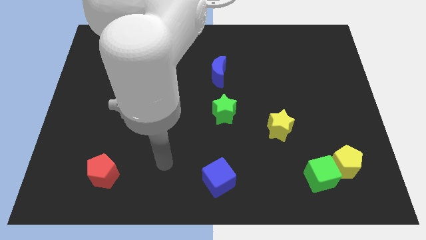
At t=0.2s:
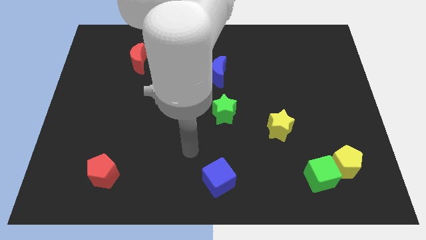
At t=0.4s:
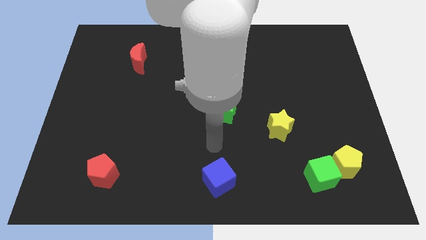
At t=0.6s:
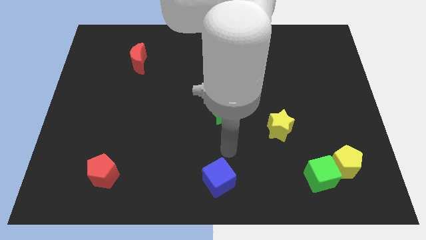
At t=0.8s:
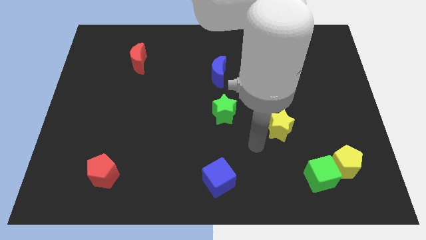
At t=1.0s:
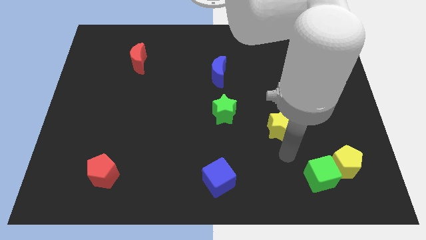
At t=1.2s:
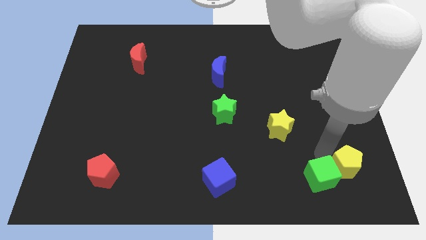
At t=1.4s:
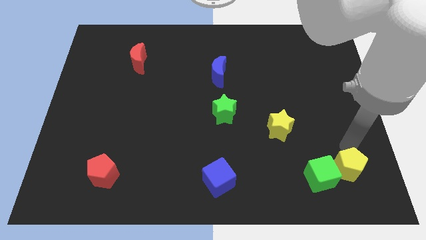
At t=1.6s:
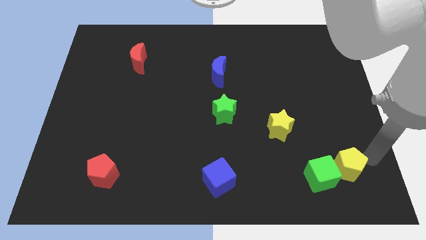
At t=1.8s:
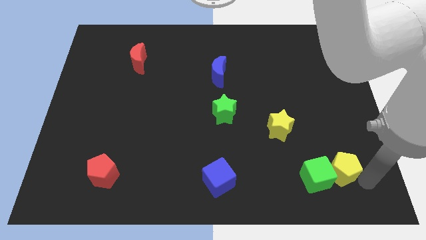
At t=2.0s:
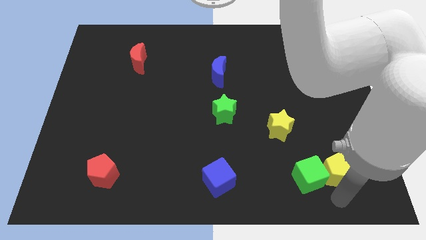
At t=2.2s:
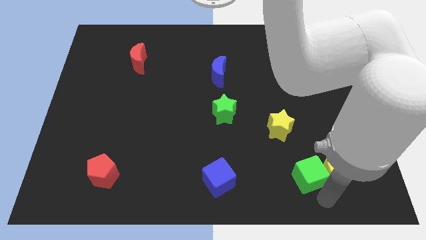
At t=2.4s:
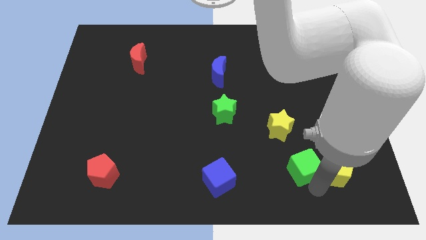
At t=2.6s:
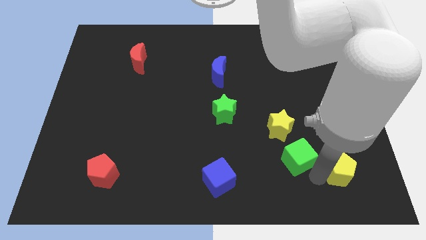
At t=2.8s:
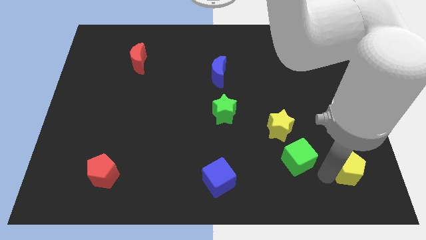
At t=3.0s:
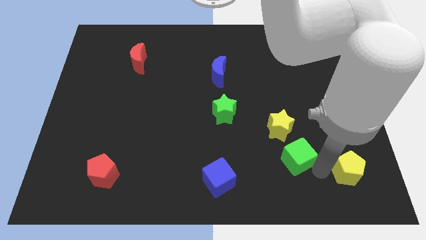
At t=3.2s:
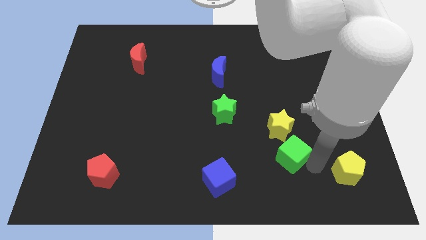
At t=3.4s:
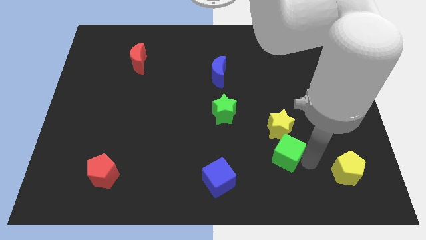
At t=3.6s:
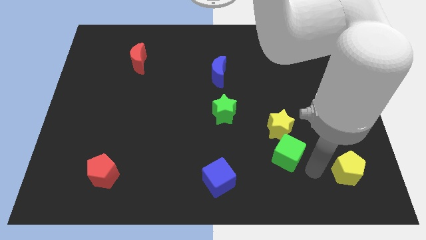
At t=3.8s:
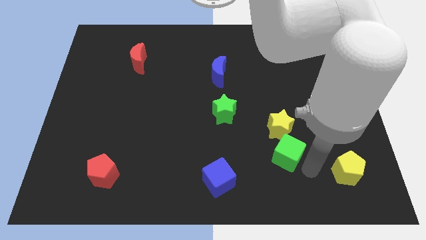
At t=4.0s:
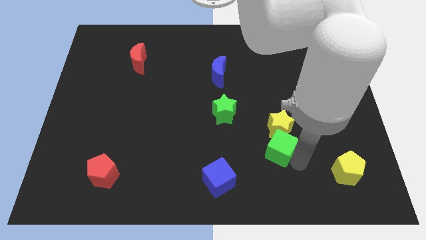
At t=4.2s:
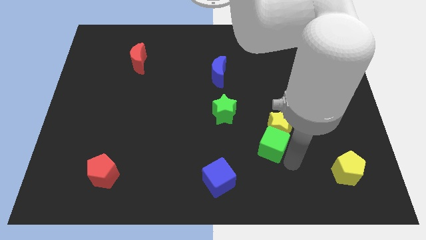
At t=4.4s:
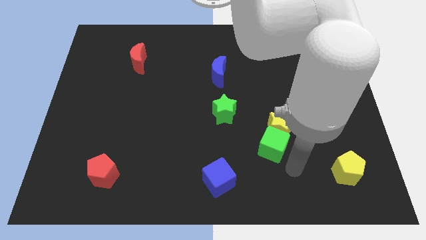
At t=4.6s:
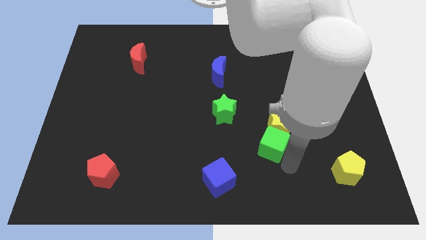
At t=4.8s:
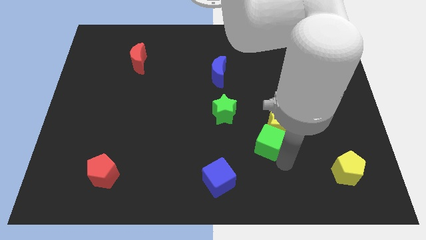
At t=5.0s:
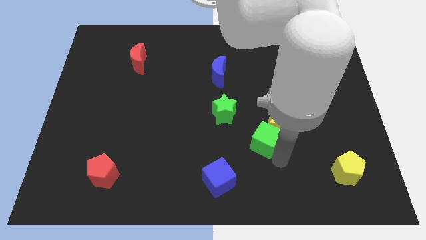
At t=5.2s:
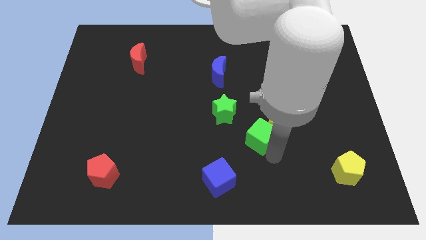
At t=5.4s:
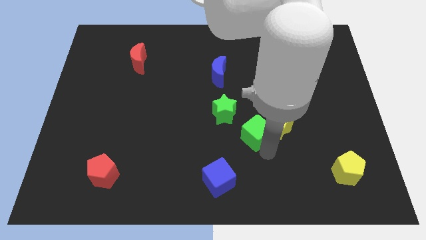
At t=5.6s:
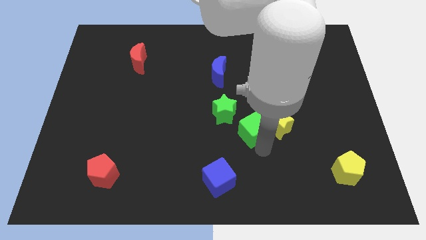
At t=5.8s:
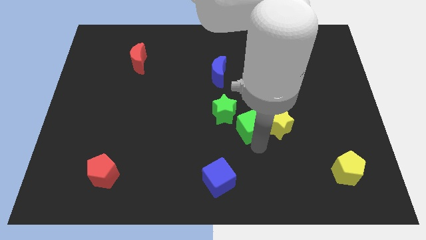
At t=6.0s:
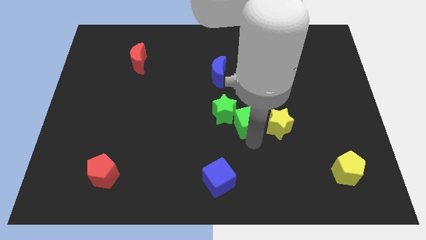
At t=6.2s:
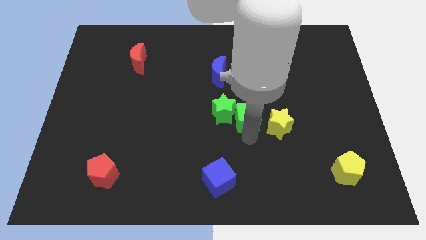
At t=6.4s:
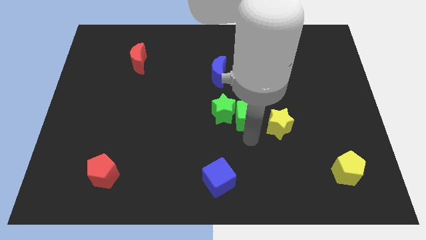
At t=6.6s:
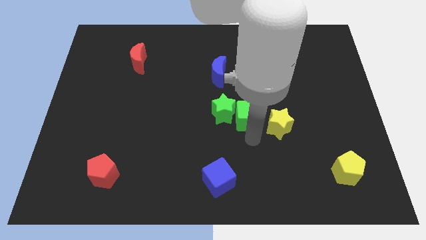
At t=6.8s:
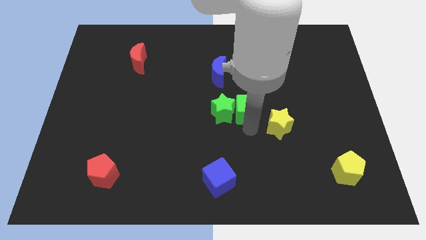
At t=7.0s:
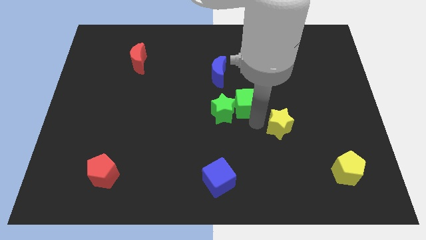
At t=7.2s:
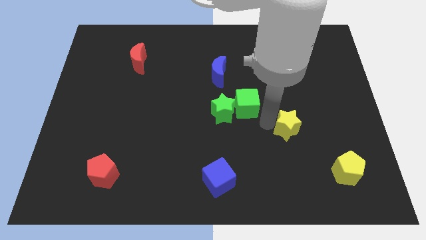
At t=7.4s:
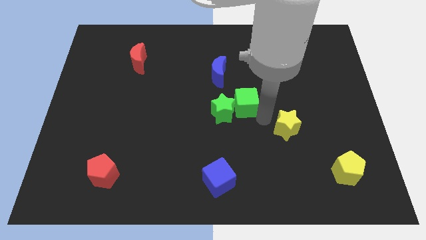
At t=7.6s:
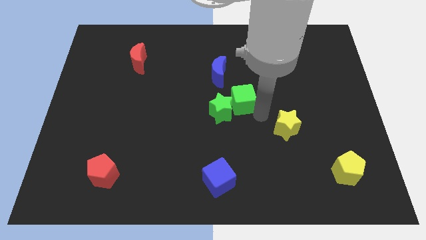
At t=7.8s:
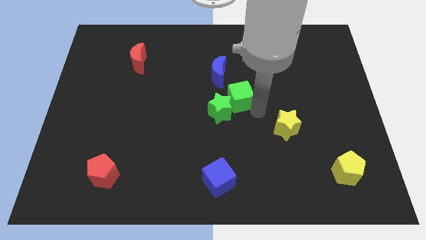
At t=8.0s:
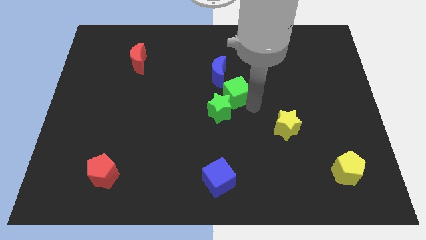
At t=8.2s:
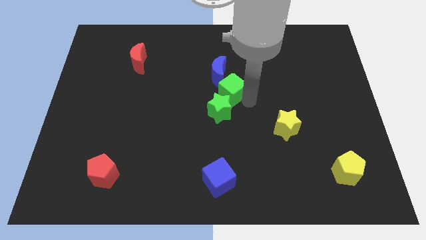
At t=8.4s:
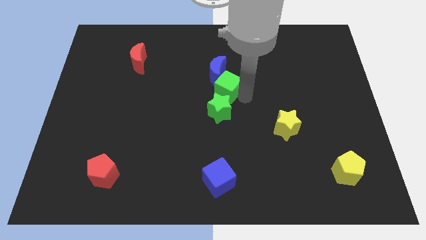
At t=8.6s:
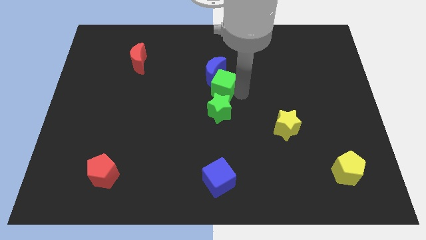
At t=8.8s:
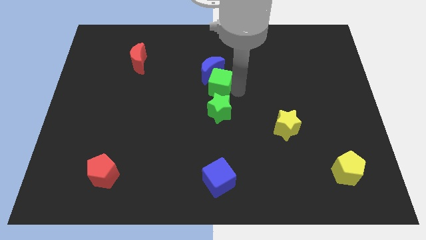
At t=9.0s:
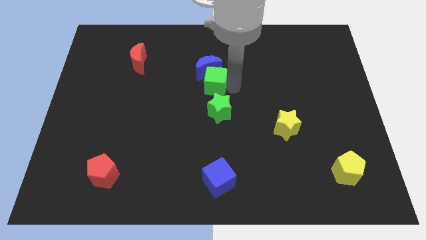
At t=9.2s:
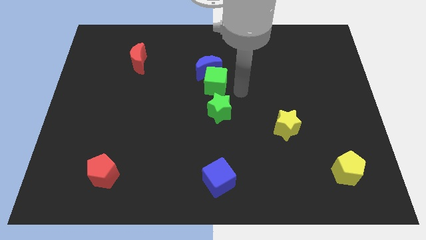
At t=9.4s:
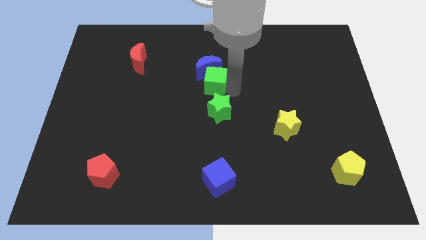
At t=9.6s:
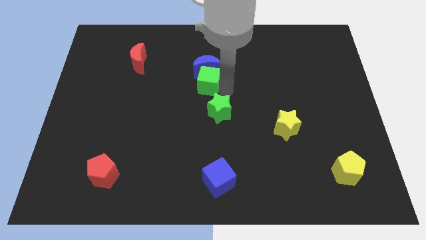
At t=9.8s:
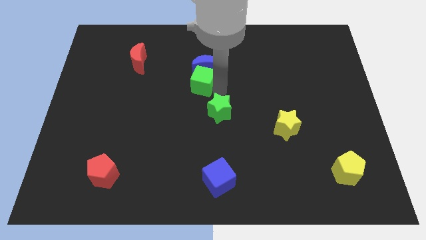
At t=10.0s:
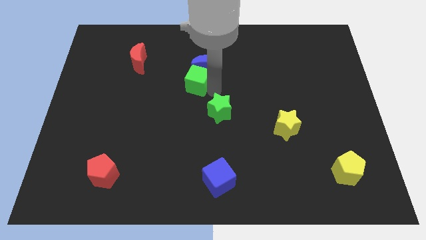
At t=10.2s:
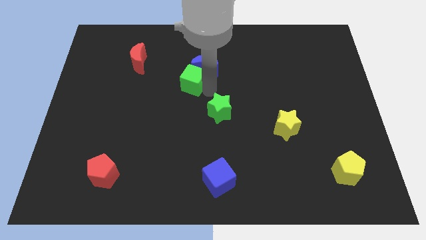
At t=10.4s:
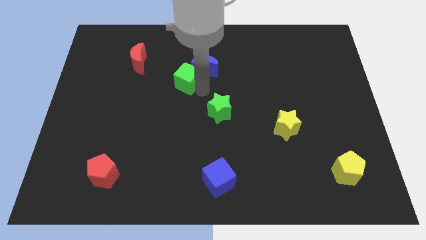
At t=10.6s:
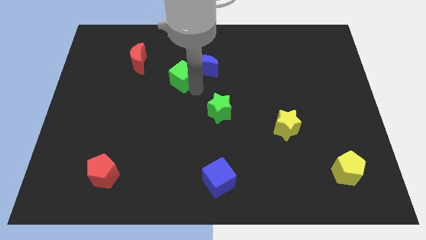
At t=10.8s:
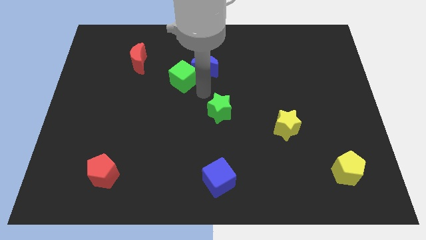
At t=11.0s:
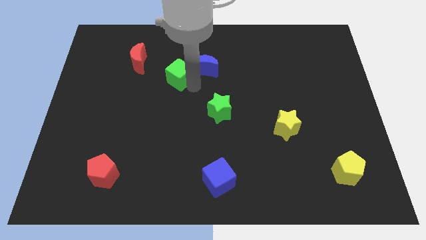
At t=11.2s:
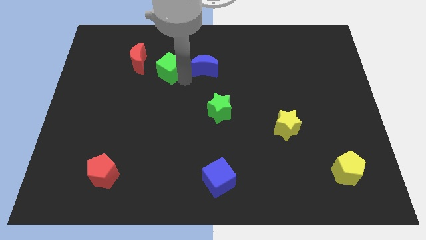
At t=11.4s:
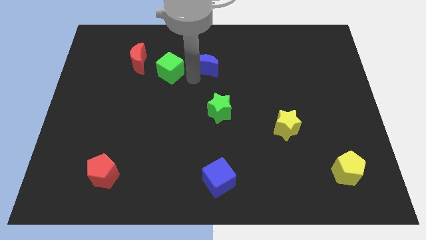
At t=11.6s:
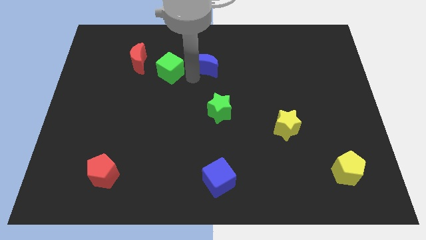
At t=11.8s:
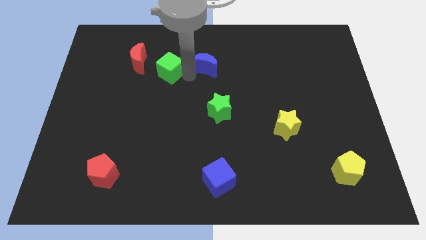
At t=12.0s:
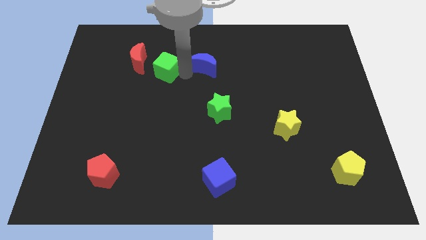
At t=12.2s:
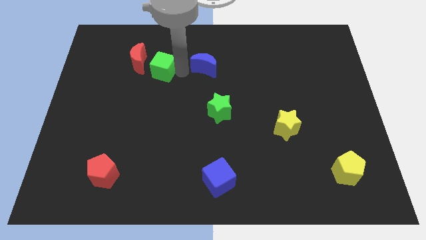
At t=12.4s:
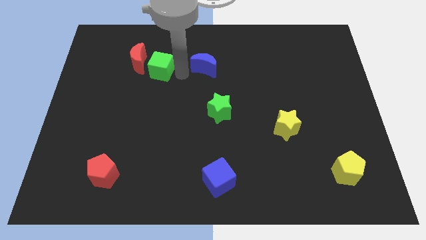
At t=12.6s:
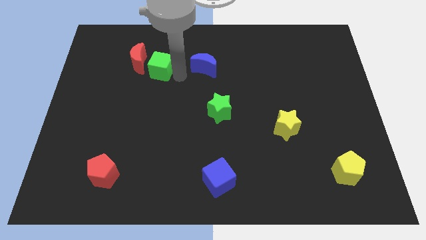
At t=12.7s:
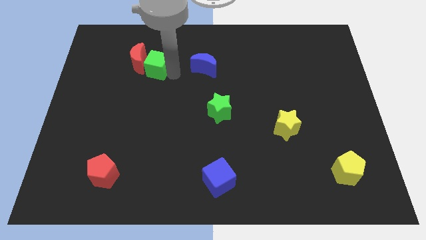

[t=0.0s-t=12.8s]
push the green cube next to the red moon

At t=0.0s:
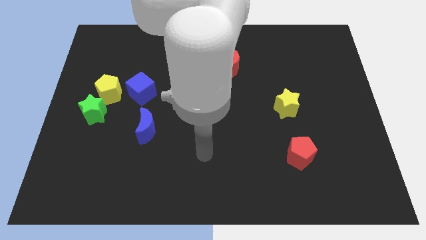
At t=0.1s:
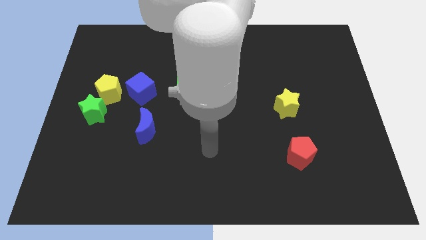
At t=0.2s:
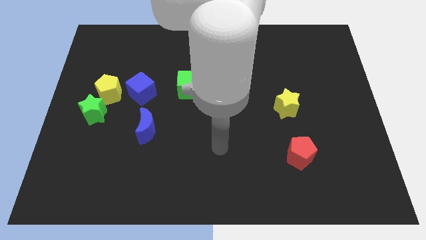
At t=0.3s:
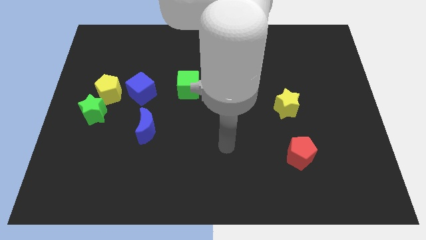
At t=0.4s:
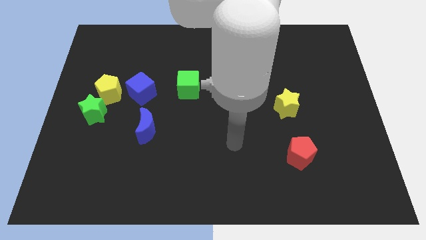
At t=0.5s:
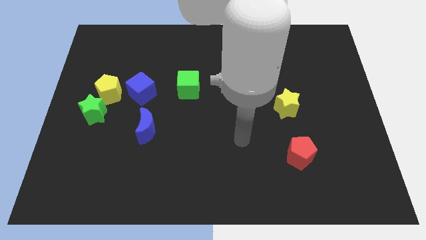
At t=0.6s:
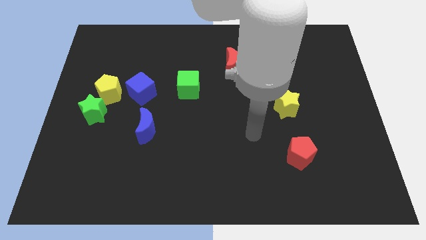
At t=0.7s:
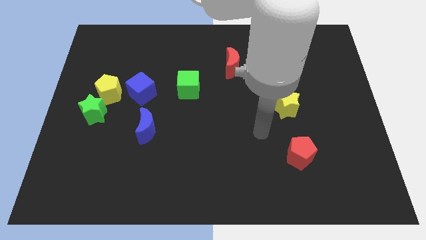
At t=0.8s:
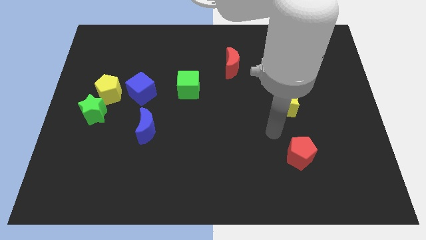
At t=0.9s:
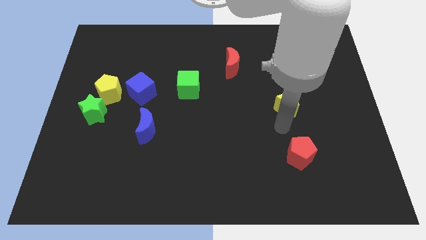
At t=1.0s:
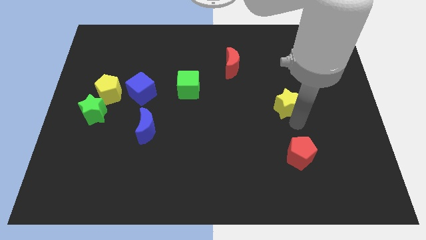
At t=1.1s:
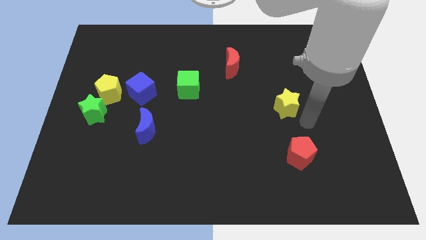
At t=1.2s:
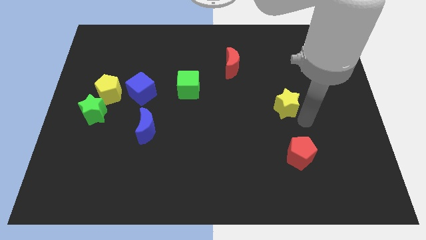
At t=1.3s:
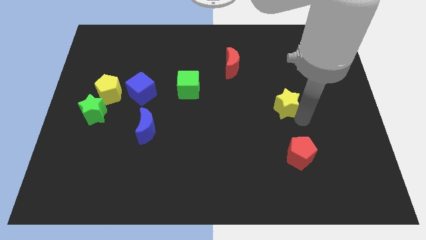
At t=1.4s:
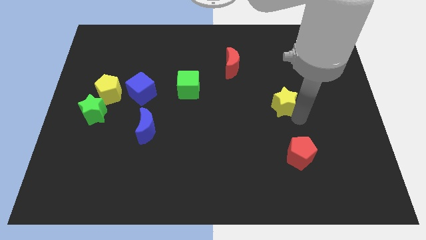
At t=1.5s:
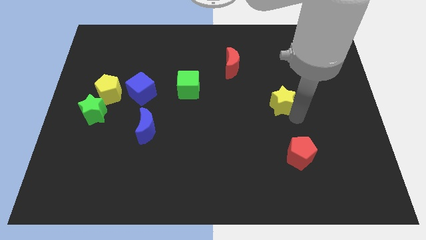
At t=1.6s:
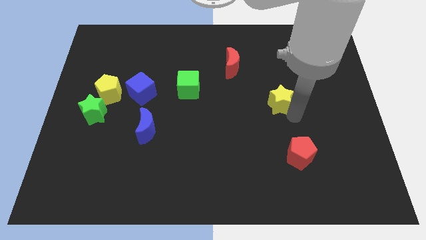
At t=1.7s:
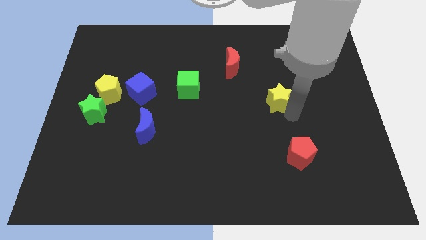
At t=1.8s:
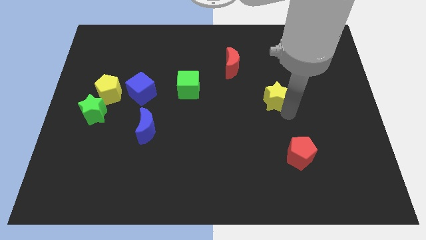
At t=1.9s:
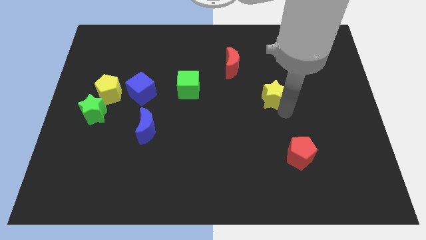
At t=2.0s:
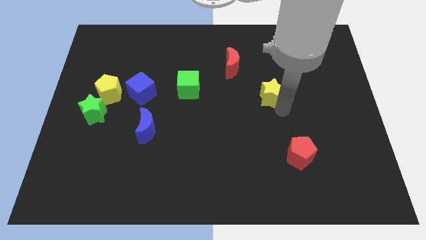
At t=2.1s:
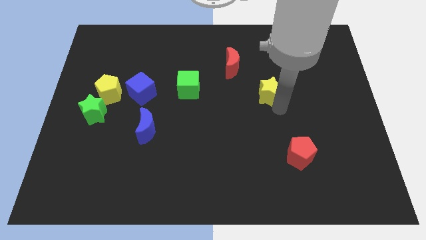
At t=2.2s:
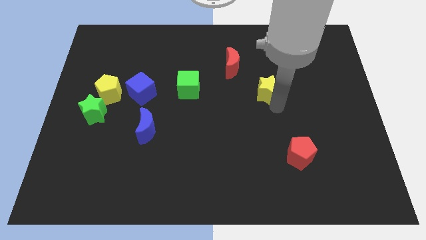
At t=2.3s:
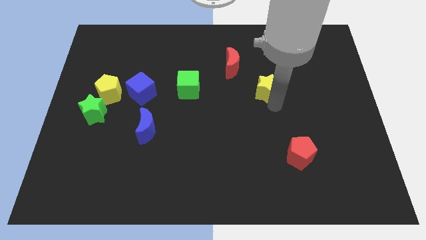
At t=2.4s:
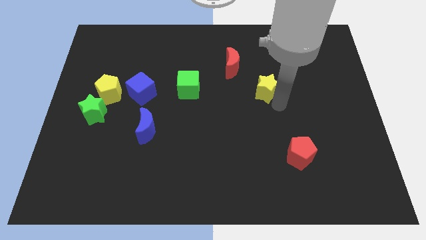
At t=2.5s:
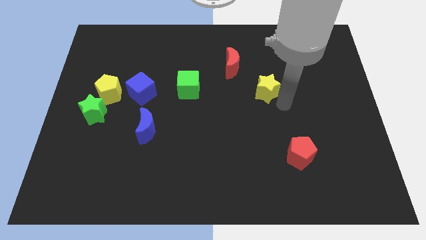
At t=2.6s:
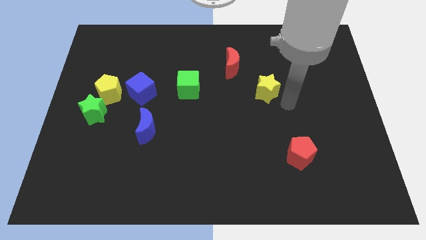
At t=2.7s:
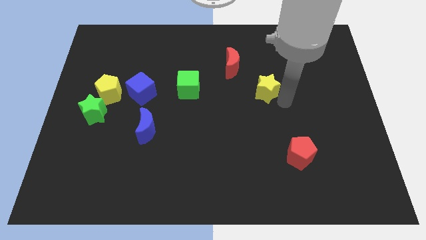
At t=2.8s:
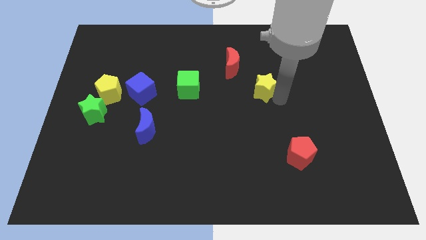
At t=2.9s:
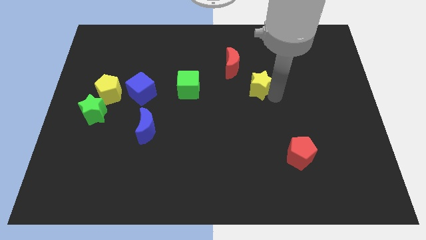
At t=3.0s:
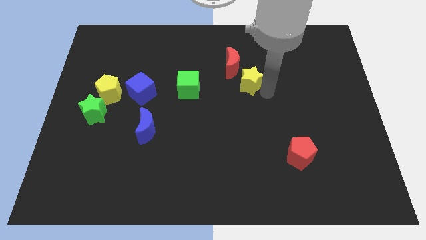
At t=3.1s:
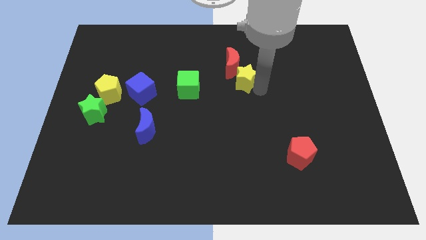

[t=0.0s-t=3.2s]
put the yellow star next to the red moon
